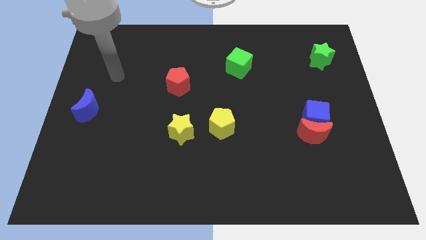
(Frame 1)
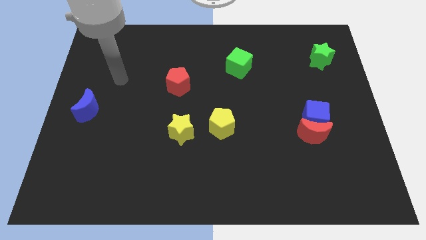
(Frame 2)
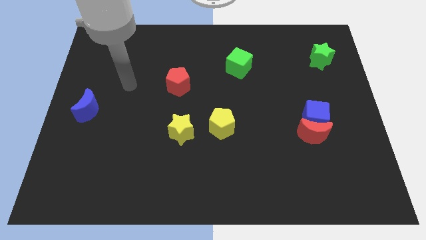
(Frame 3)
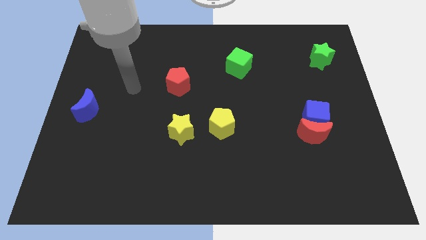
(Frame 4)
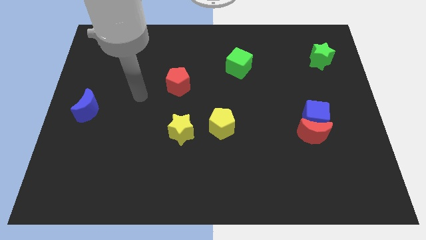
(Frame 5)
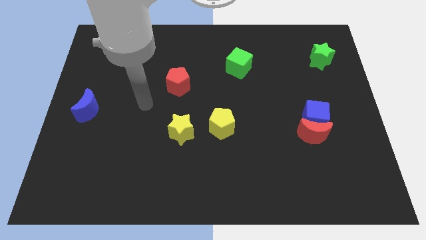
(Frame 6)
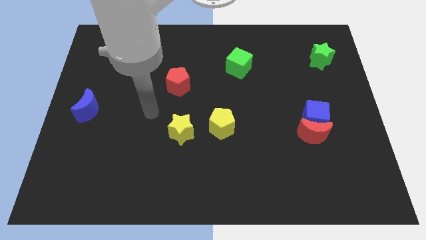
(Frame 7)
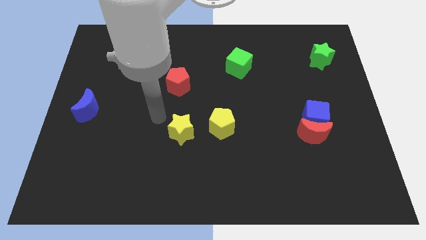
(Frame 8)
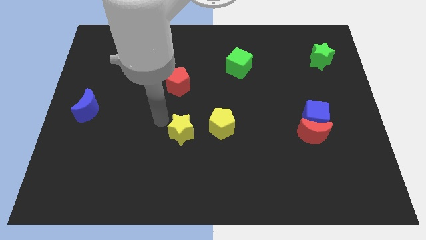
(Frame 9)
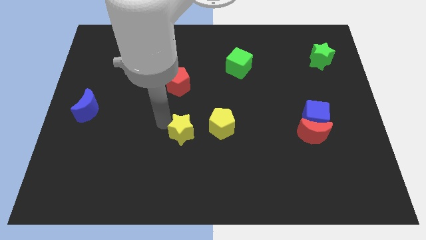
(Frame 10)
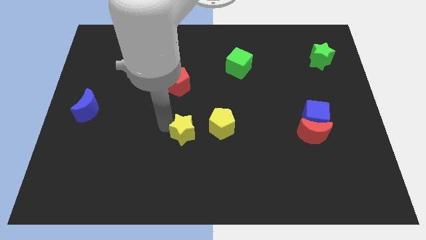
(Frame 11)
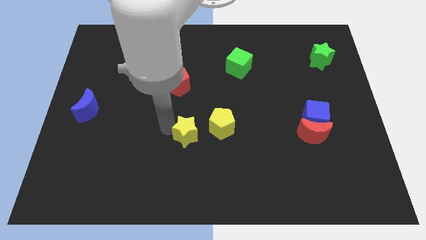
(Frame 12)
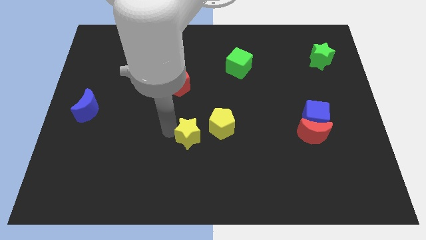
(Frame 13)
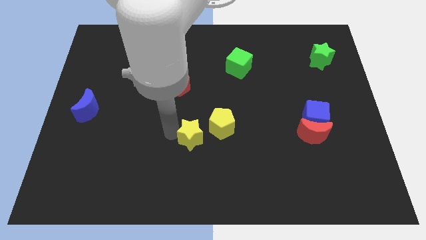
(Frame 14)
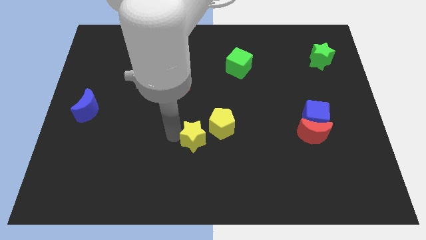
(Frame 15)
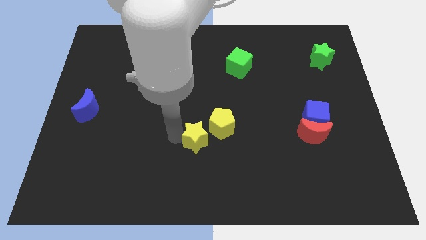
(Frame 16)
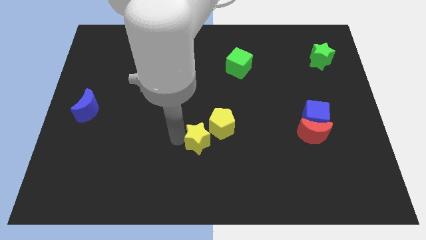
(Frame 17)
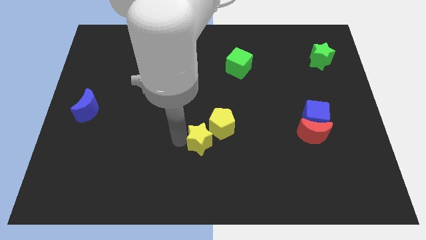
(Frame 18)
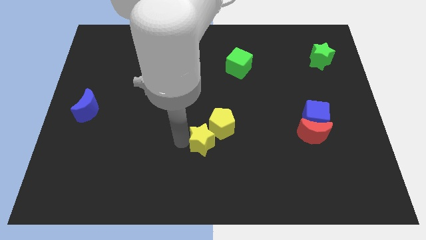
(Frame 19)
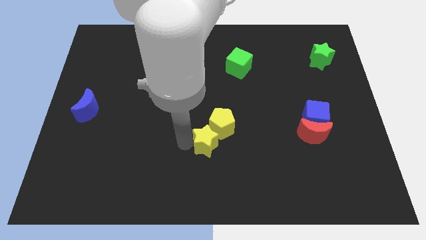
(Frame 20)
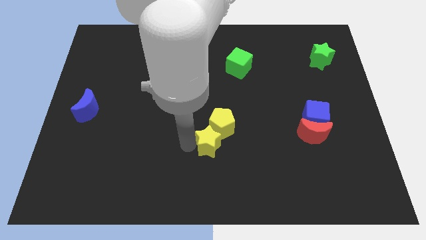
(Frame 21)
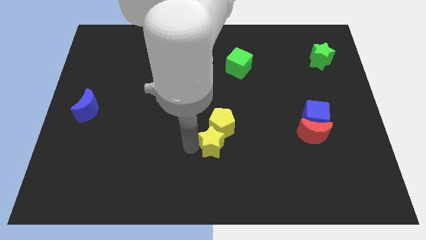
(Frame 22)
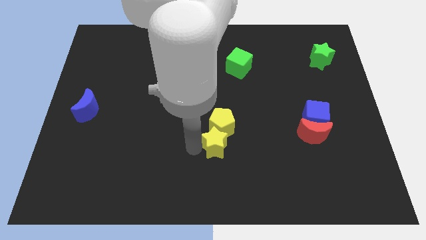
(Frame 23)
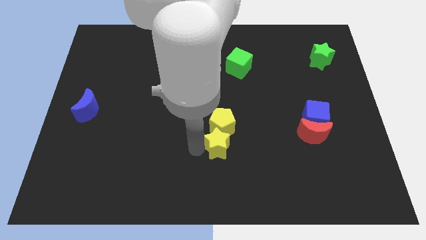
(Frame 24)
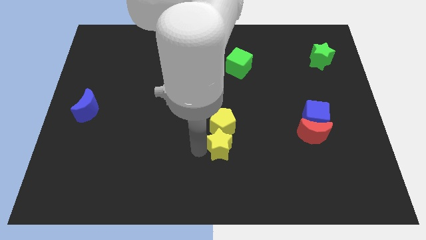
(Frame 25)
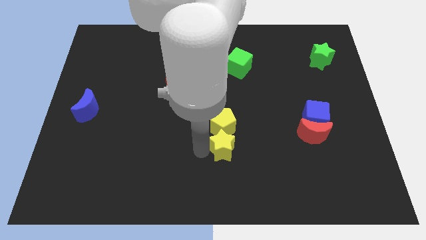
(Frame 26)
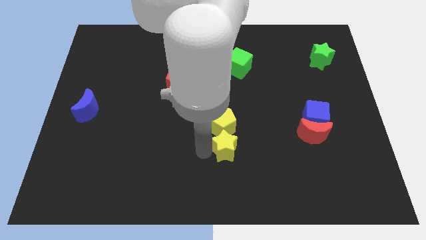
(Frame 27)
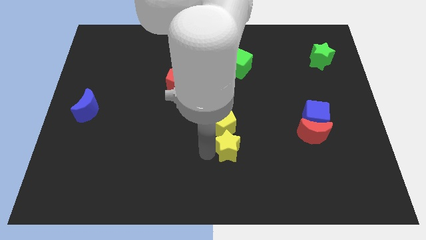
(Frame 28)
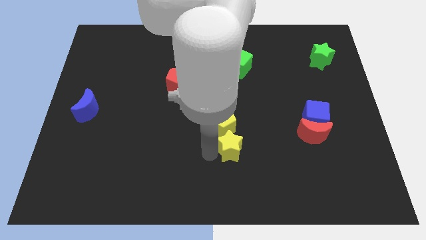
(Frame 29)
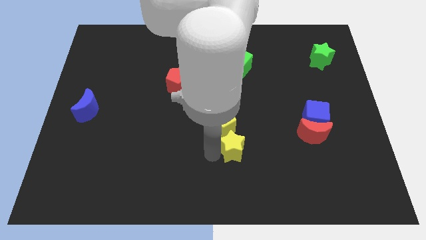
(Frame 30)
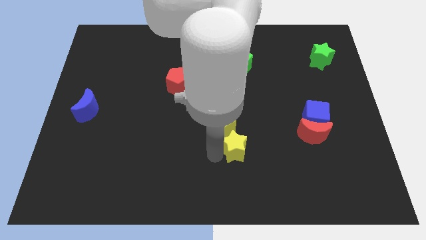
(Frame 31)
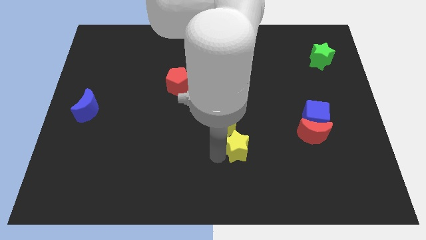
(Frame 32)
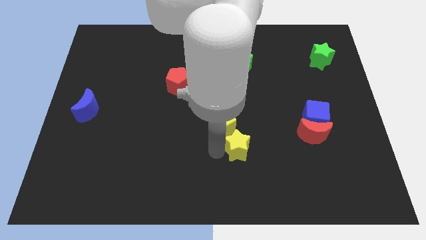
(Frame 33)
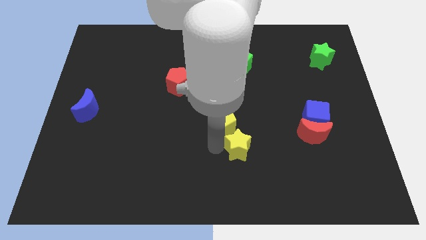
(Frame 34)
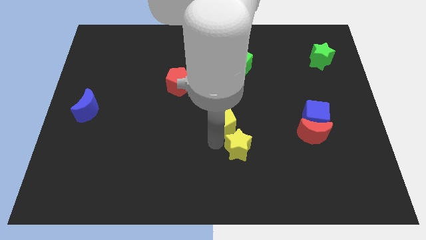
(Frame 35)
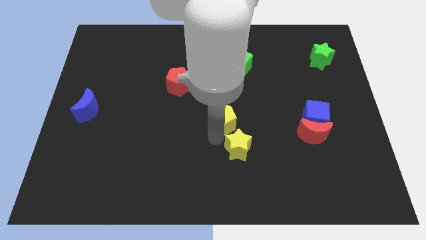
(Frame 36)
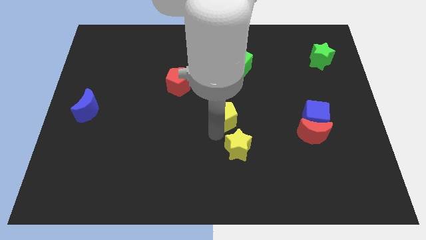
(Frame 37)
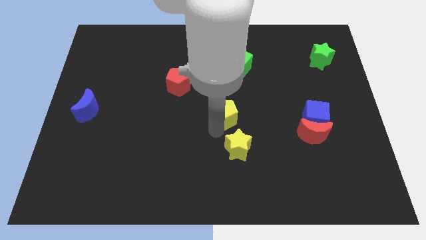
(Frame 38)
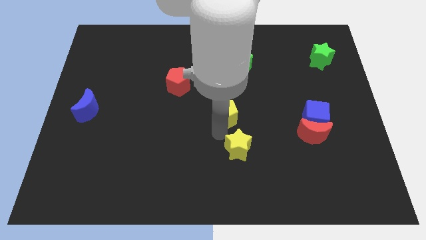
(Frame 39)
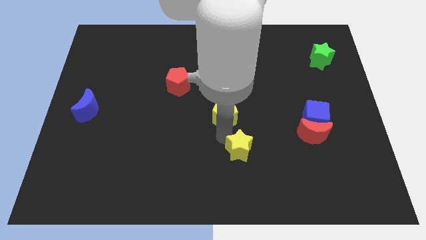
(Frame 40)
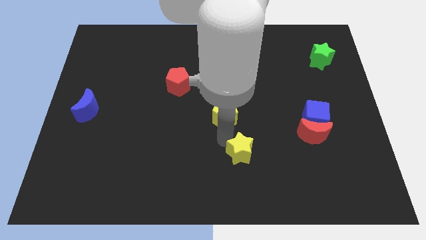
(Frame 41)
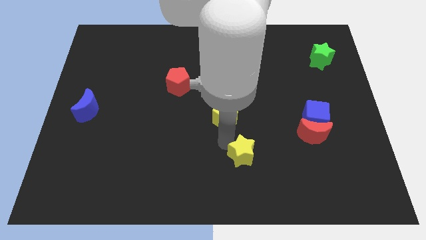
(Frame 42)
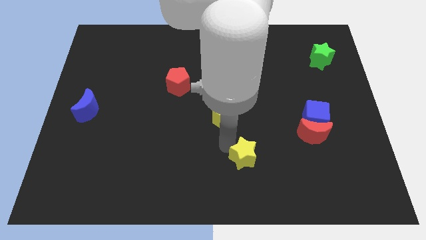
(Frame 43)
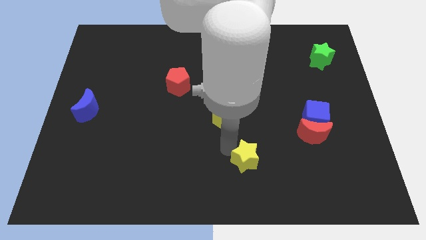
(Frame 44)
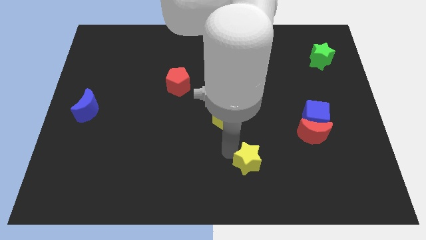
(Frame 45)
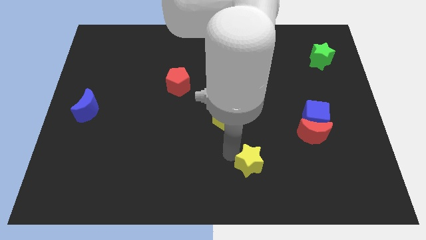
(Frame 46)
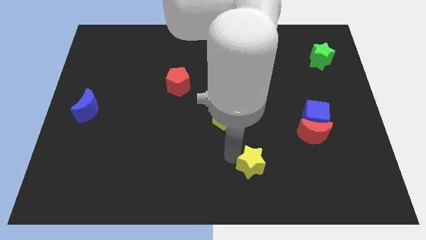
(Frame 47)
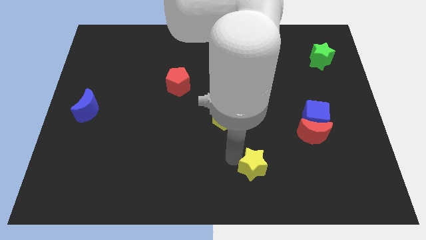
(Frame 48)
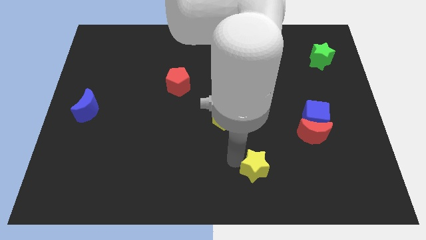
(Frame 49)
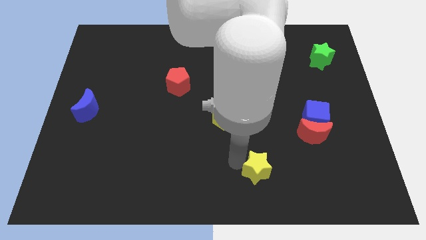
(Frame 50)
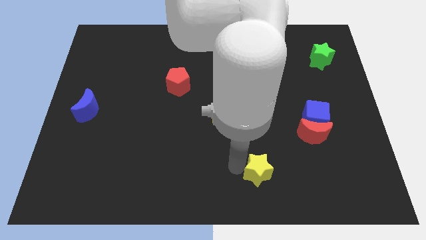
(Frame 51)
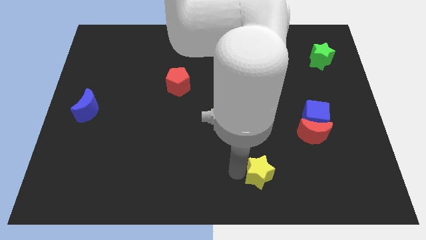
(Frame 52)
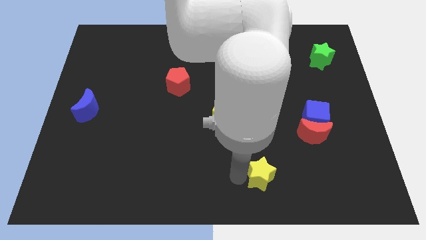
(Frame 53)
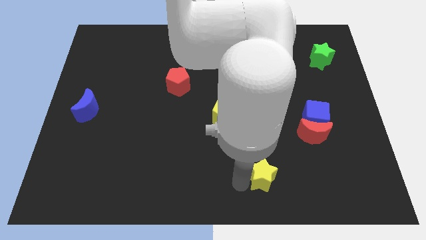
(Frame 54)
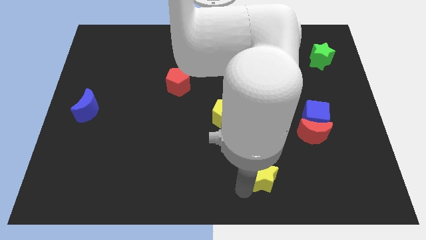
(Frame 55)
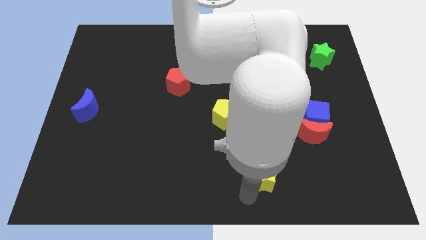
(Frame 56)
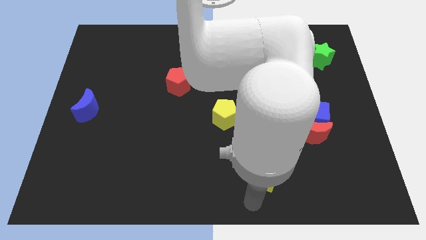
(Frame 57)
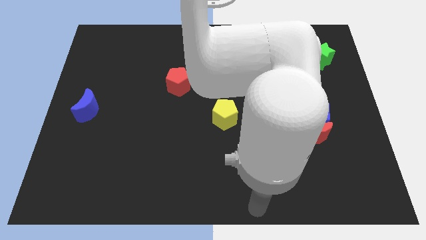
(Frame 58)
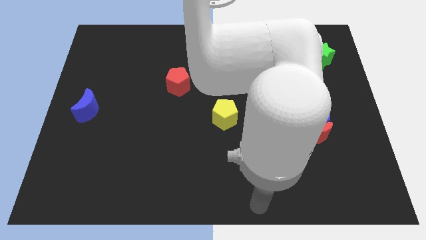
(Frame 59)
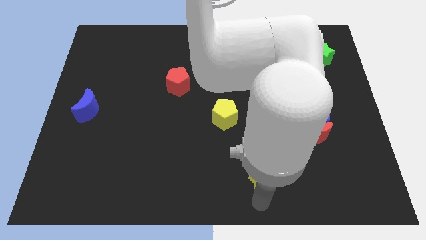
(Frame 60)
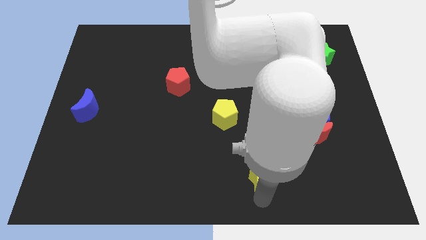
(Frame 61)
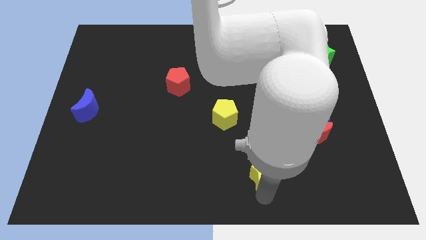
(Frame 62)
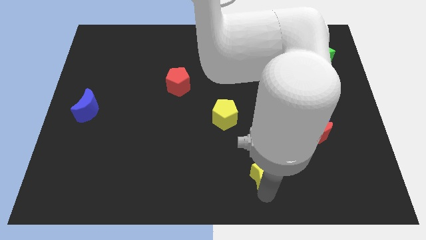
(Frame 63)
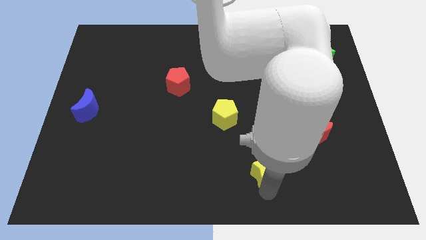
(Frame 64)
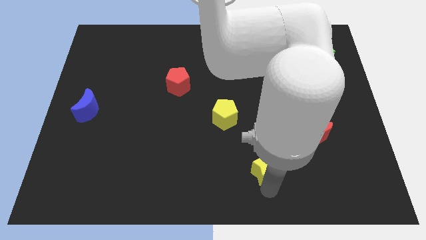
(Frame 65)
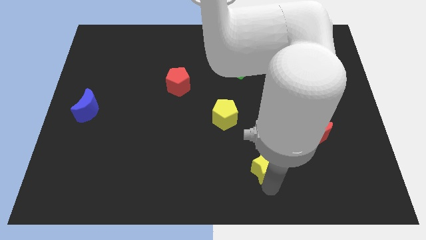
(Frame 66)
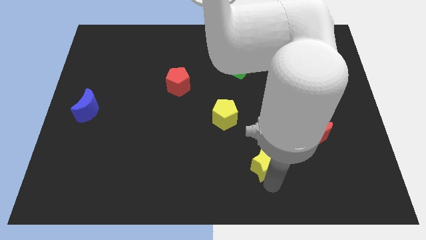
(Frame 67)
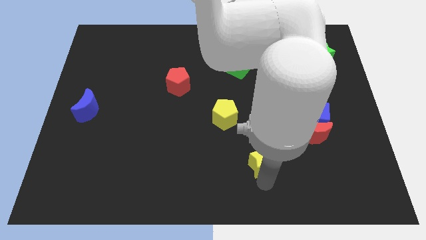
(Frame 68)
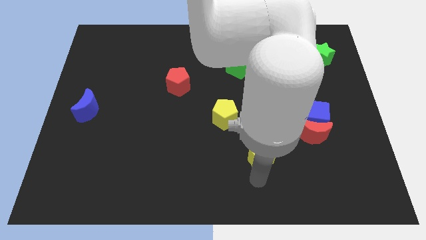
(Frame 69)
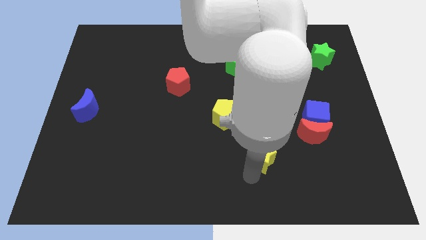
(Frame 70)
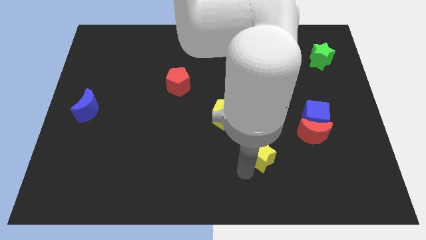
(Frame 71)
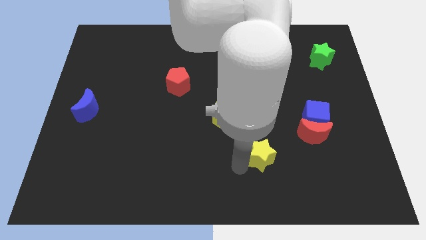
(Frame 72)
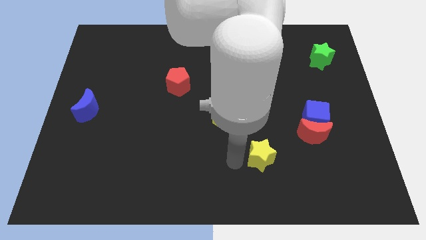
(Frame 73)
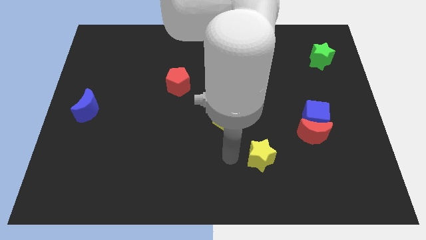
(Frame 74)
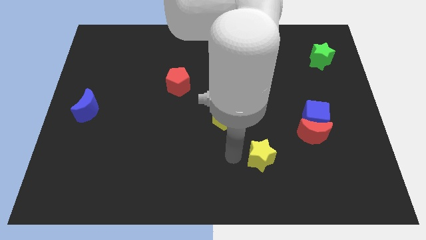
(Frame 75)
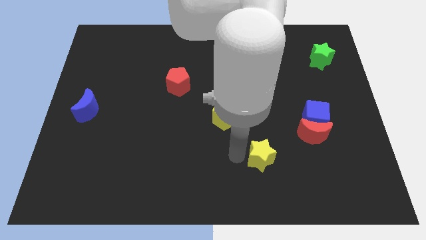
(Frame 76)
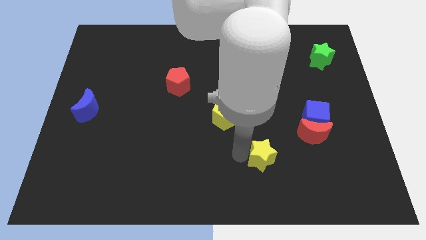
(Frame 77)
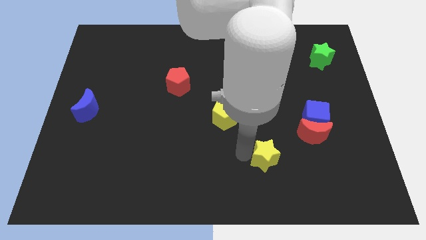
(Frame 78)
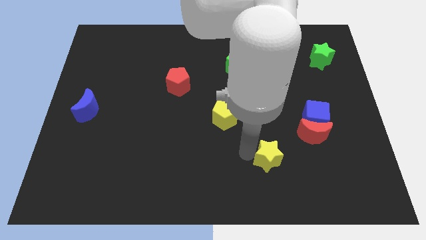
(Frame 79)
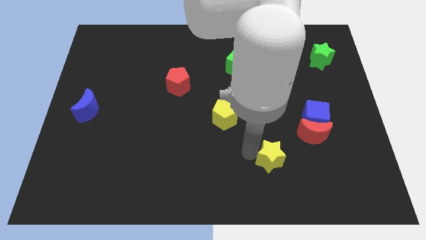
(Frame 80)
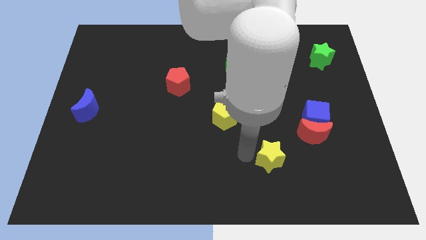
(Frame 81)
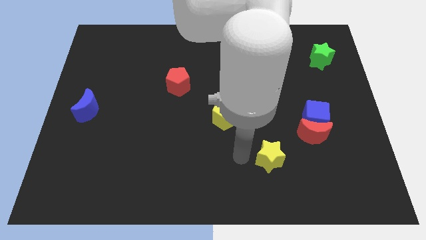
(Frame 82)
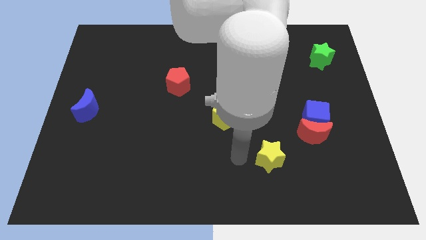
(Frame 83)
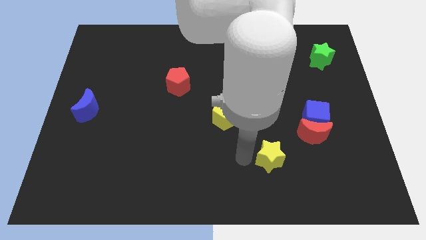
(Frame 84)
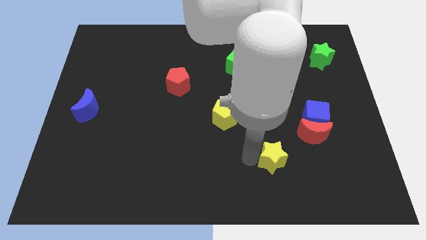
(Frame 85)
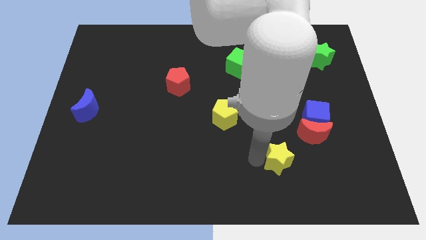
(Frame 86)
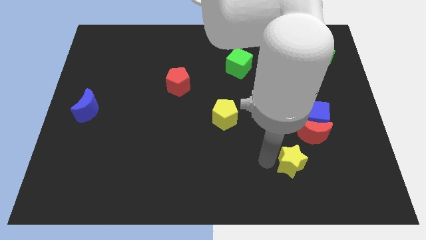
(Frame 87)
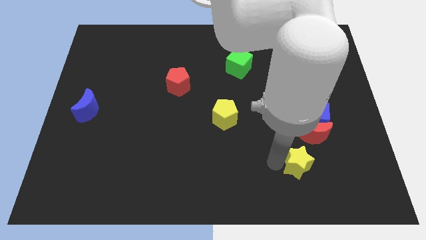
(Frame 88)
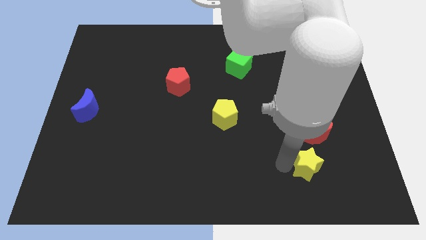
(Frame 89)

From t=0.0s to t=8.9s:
move the yellow star to the bottom side of the blue cube
